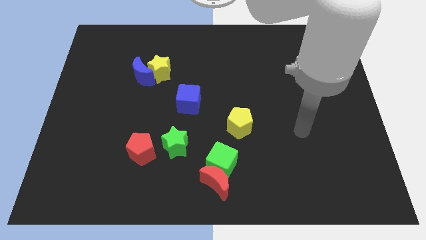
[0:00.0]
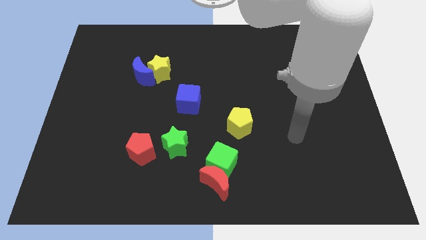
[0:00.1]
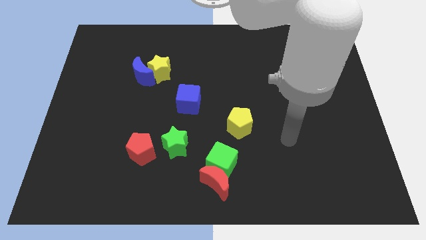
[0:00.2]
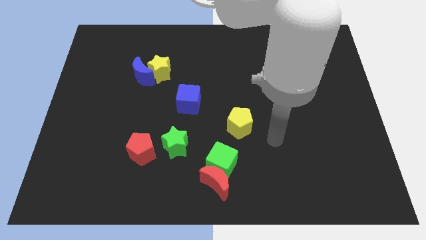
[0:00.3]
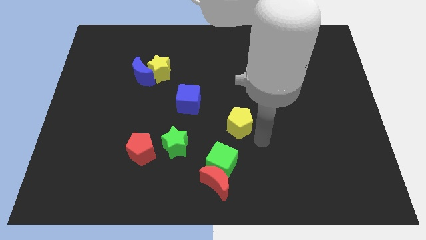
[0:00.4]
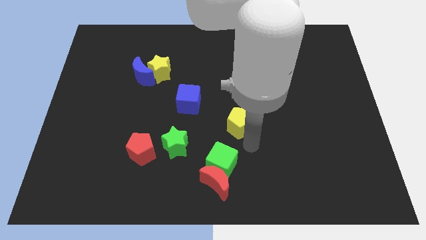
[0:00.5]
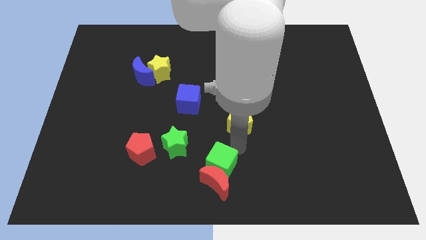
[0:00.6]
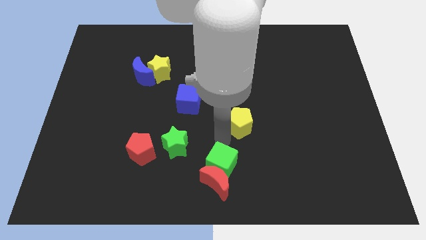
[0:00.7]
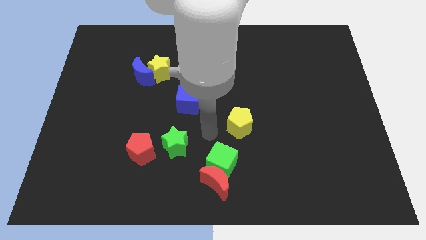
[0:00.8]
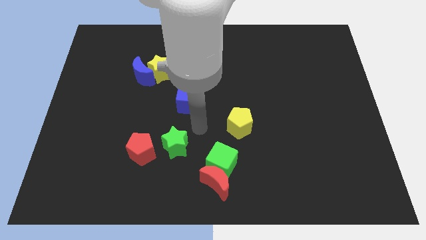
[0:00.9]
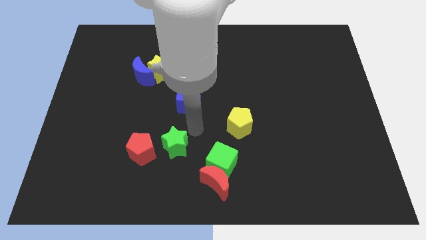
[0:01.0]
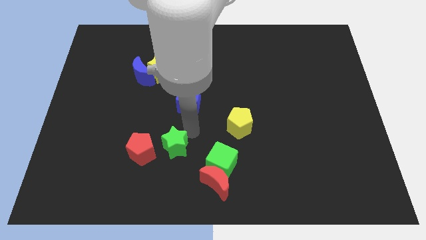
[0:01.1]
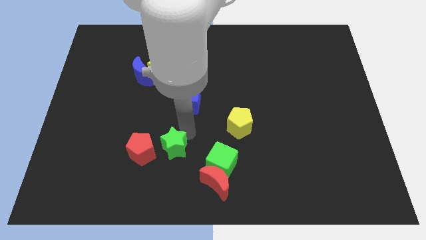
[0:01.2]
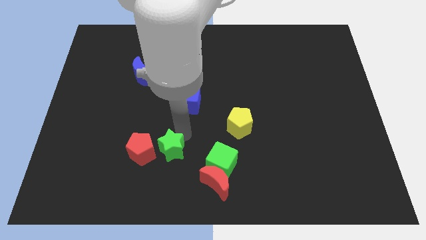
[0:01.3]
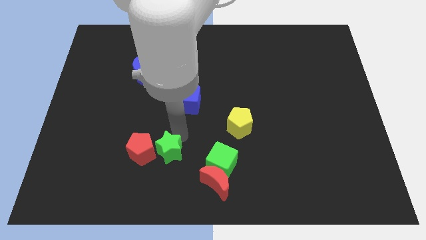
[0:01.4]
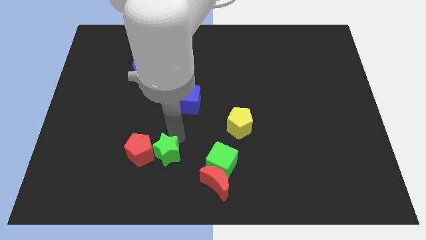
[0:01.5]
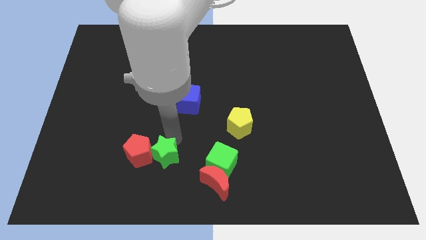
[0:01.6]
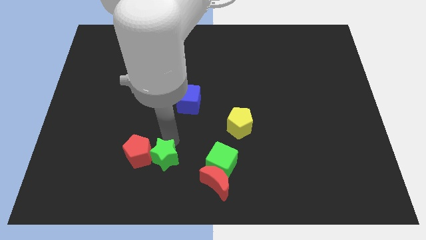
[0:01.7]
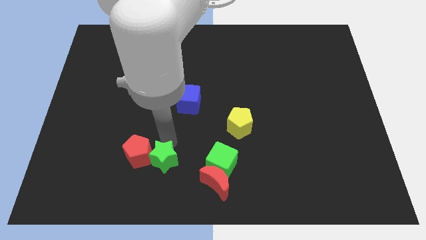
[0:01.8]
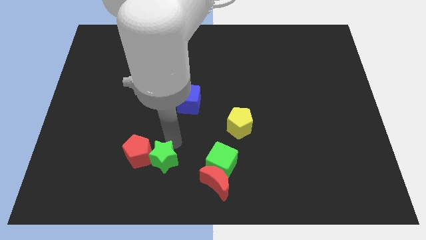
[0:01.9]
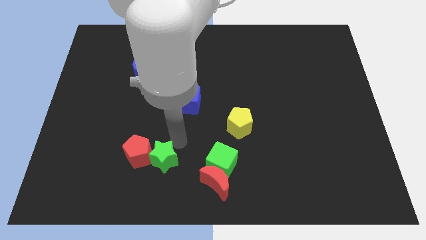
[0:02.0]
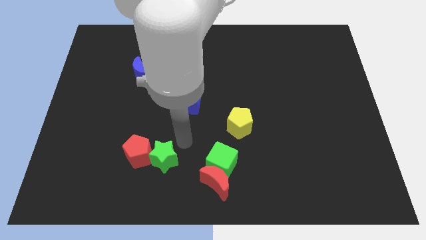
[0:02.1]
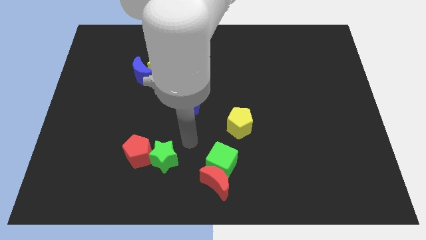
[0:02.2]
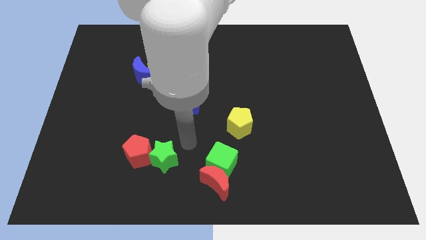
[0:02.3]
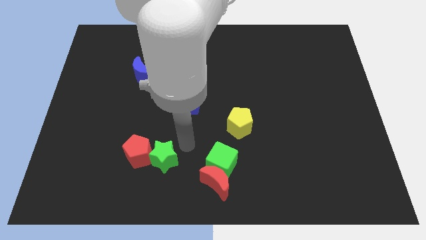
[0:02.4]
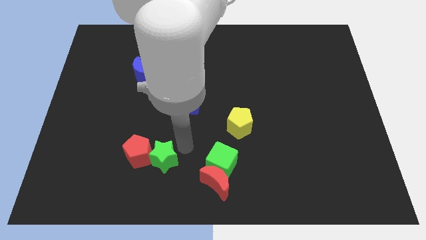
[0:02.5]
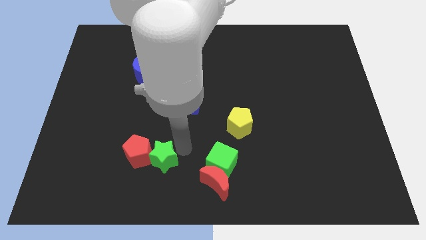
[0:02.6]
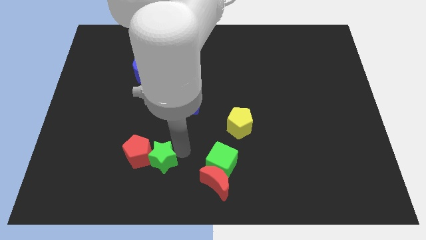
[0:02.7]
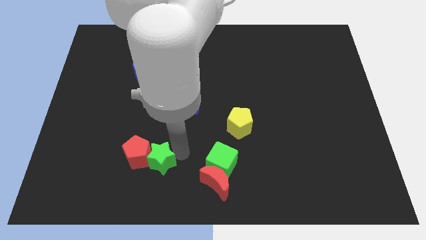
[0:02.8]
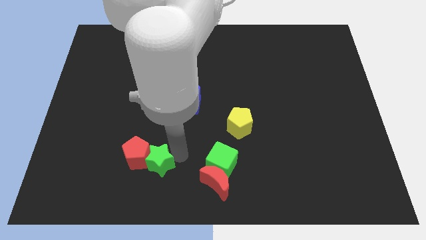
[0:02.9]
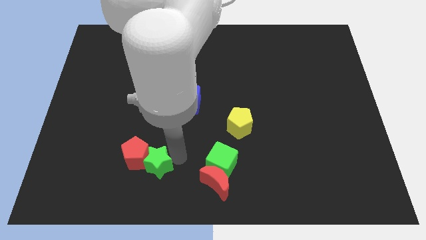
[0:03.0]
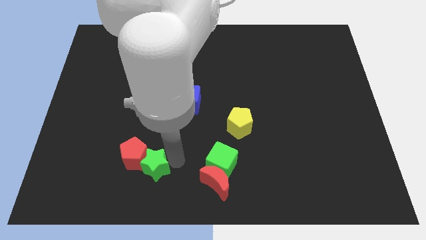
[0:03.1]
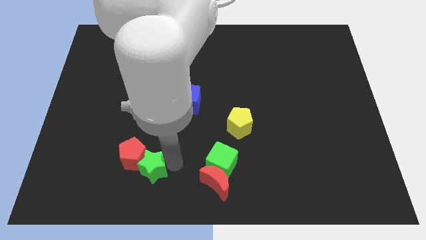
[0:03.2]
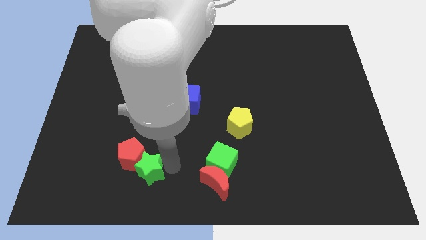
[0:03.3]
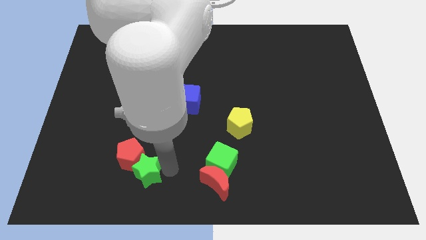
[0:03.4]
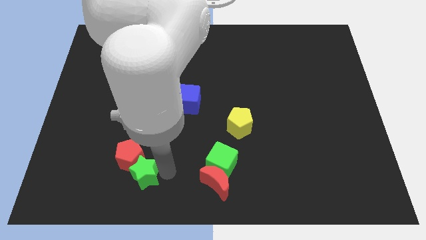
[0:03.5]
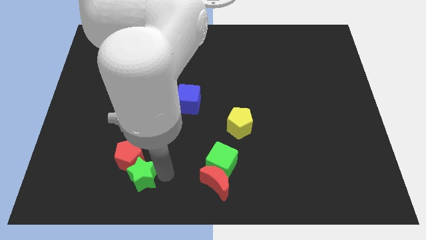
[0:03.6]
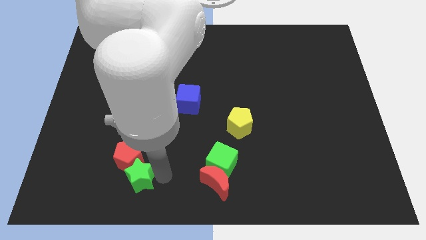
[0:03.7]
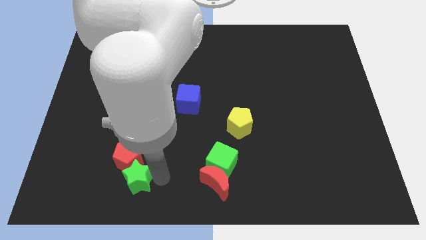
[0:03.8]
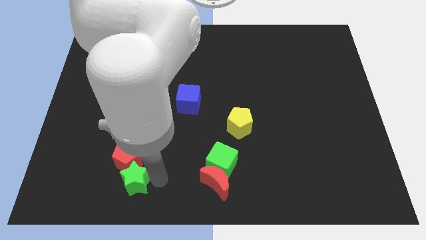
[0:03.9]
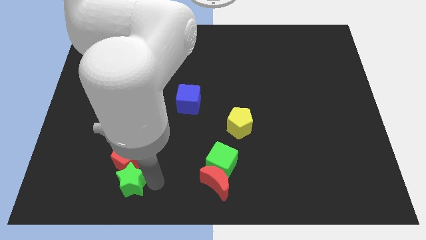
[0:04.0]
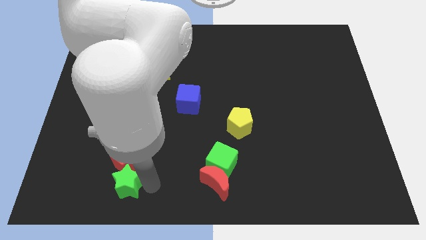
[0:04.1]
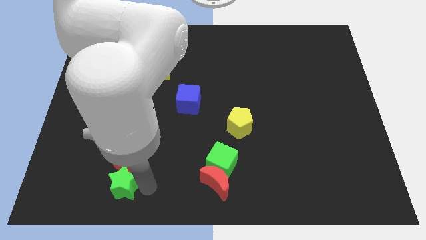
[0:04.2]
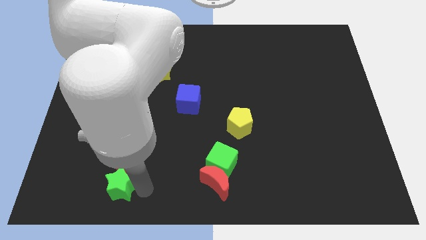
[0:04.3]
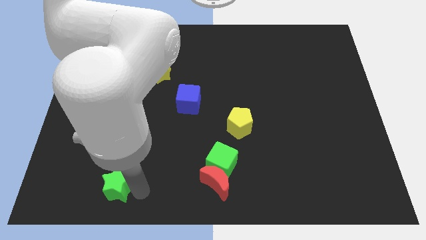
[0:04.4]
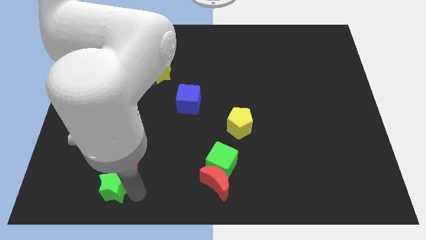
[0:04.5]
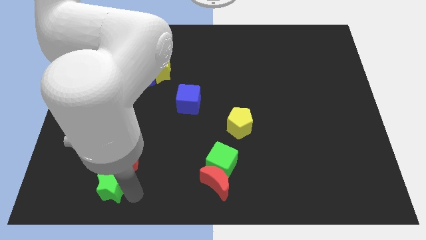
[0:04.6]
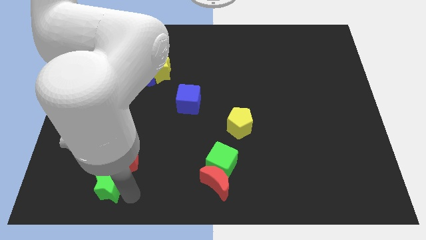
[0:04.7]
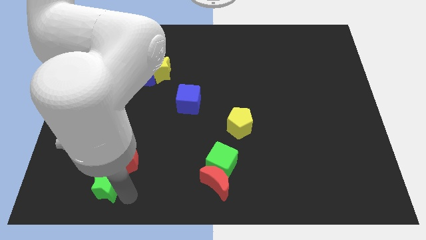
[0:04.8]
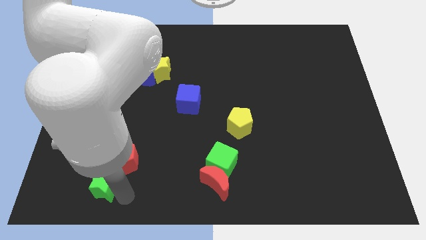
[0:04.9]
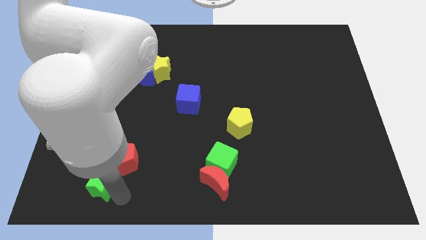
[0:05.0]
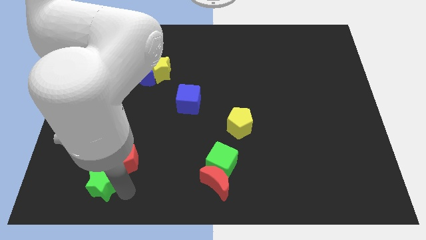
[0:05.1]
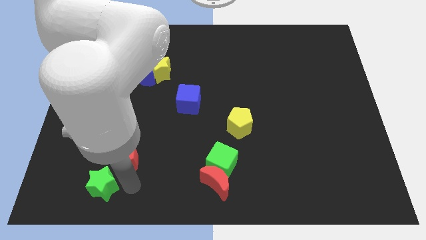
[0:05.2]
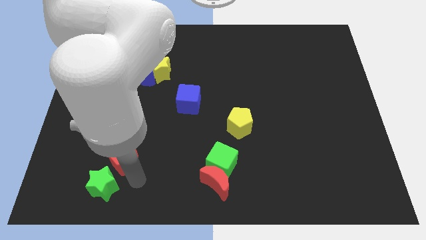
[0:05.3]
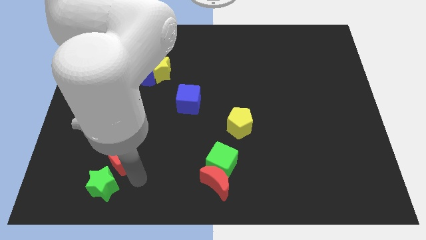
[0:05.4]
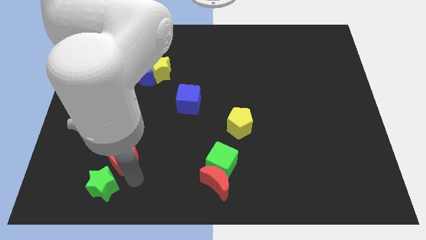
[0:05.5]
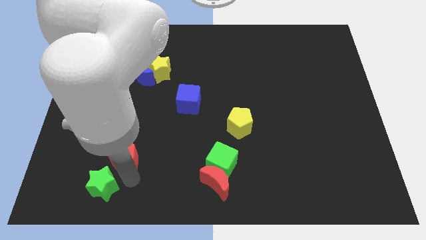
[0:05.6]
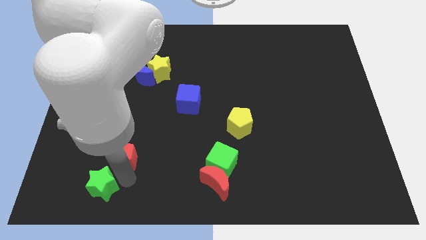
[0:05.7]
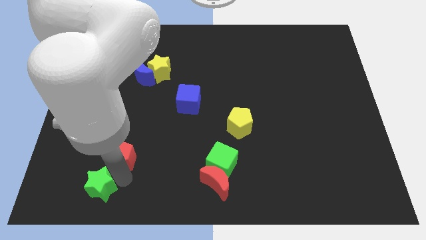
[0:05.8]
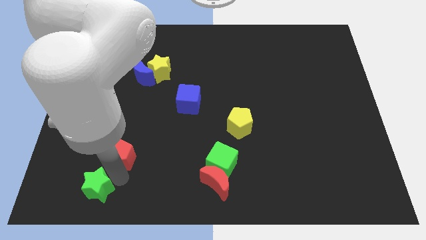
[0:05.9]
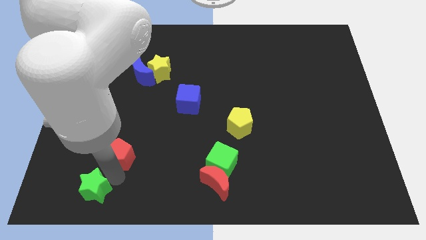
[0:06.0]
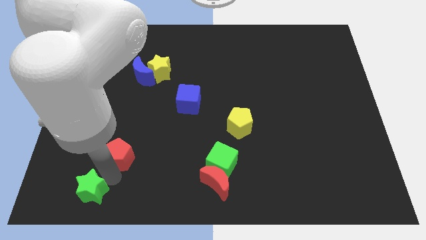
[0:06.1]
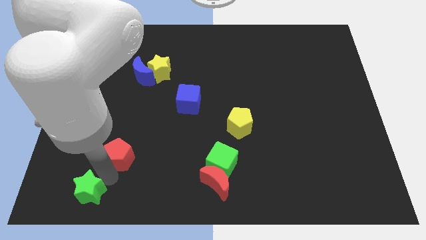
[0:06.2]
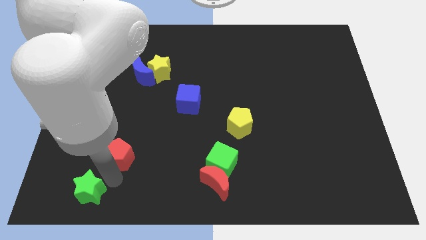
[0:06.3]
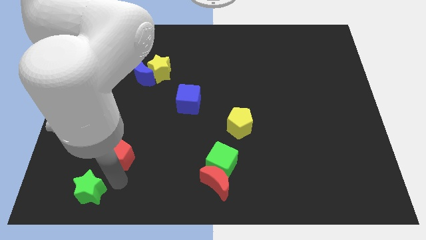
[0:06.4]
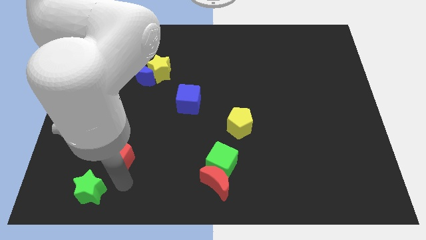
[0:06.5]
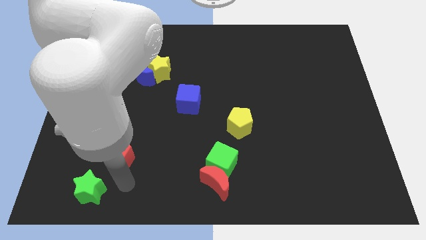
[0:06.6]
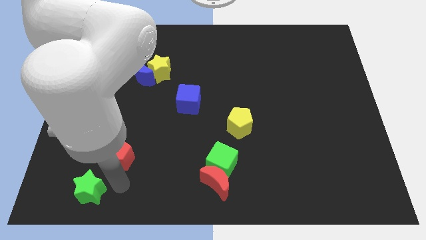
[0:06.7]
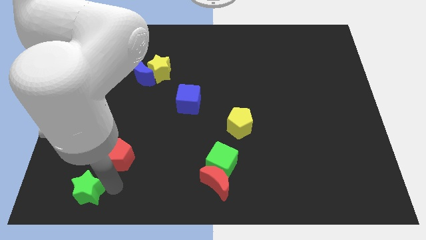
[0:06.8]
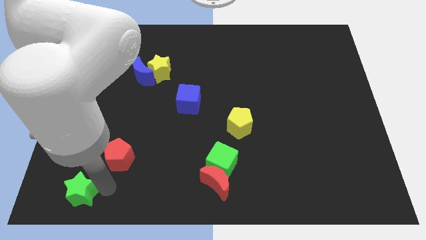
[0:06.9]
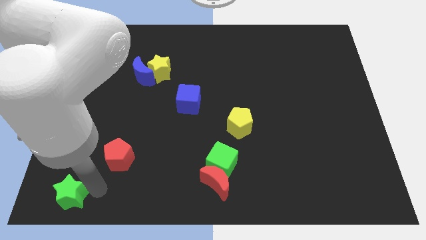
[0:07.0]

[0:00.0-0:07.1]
push the green star to the bottom left corner
